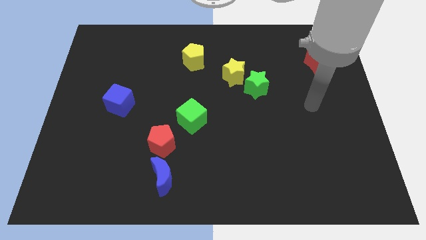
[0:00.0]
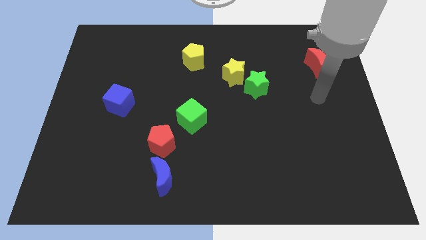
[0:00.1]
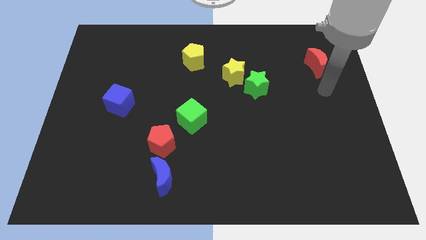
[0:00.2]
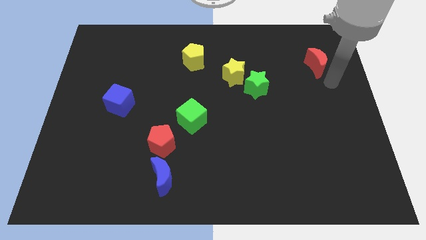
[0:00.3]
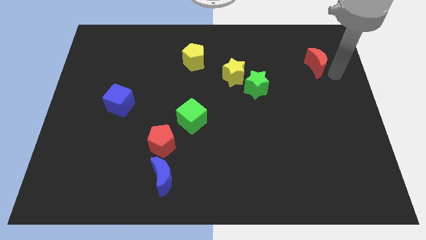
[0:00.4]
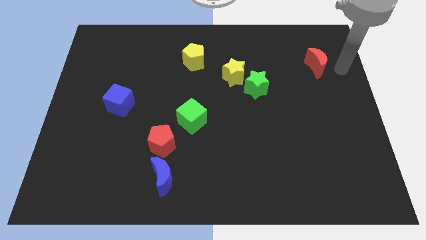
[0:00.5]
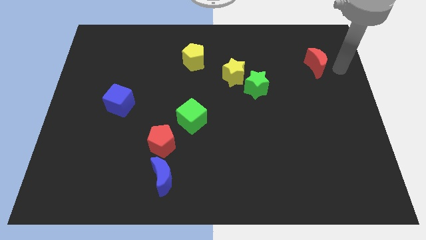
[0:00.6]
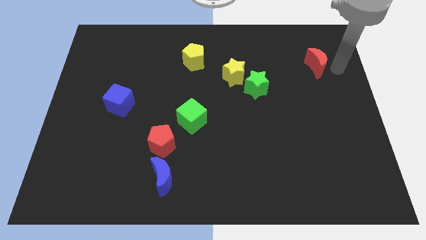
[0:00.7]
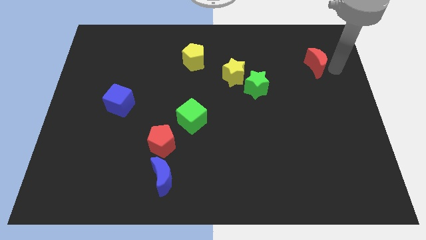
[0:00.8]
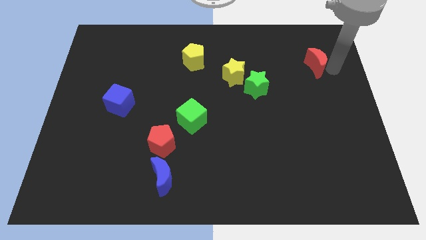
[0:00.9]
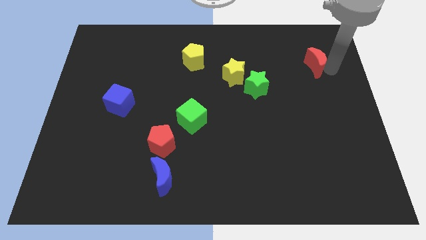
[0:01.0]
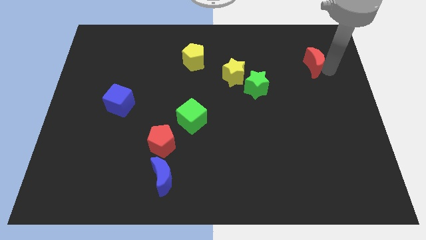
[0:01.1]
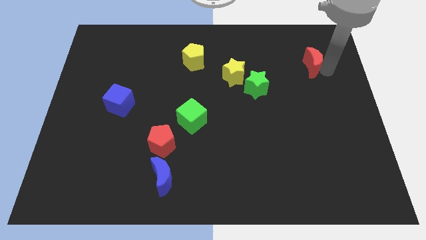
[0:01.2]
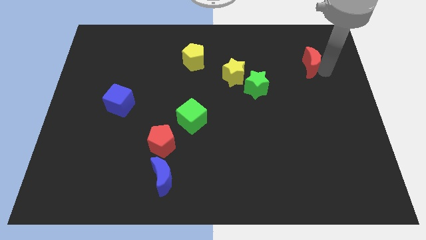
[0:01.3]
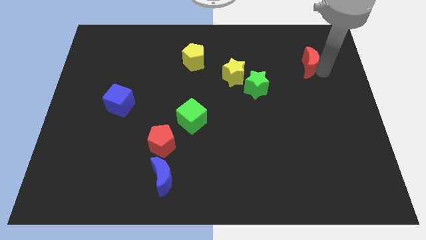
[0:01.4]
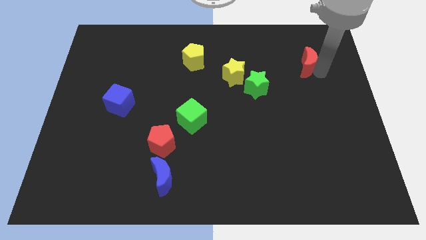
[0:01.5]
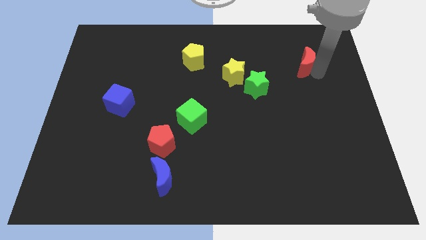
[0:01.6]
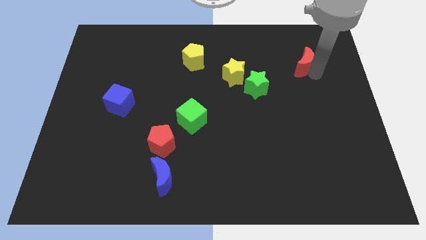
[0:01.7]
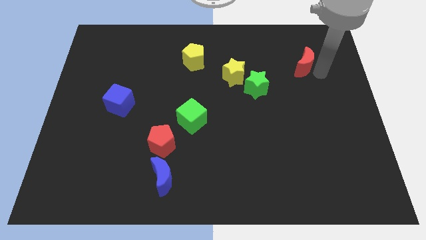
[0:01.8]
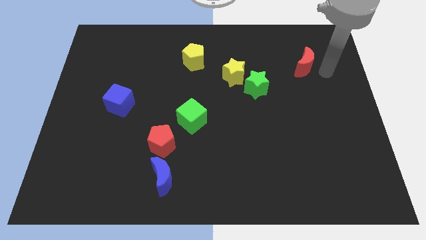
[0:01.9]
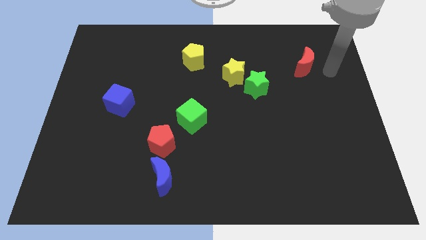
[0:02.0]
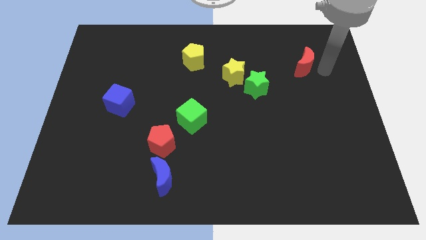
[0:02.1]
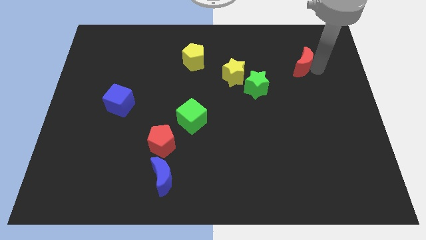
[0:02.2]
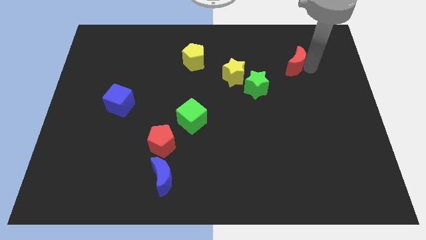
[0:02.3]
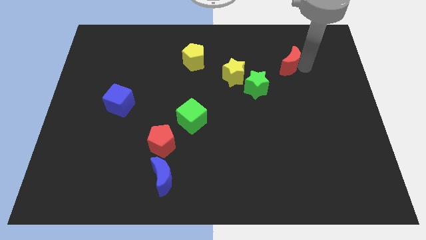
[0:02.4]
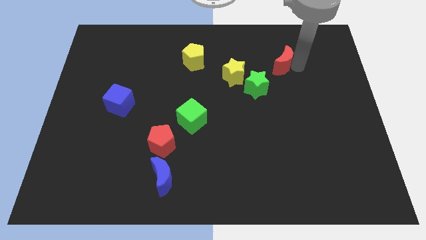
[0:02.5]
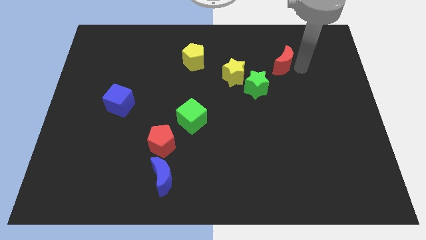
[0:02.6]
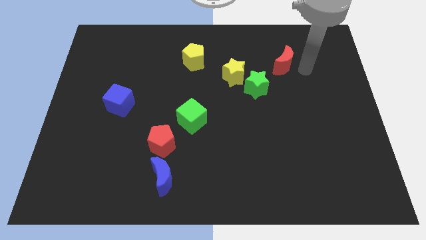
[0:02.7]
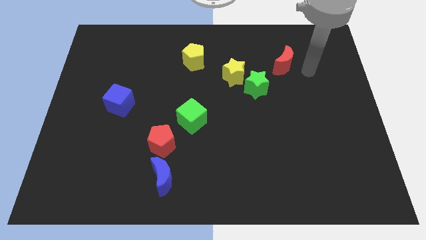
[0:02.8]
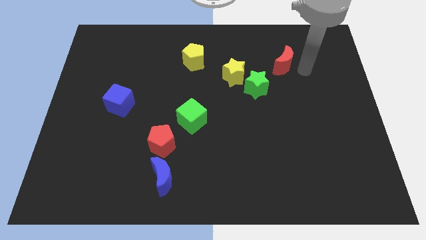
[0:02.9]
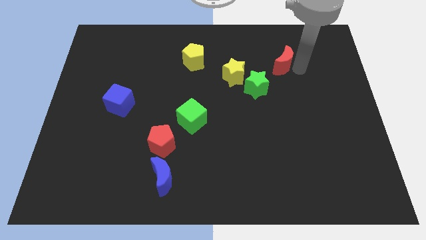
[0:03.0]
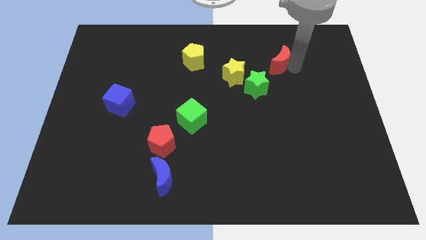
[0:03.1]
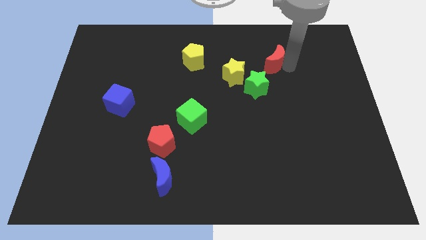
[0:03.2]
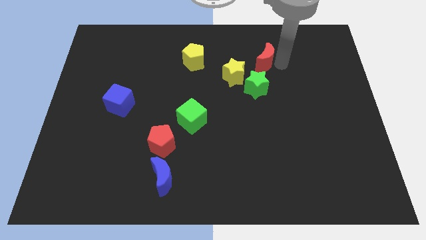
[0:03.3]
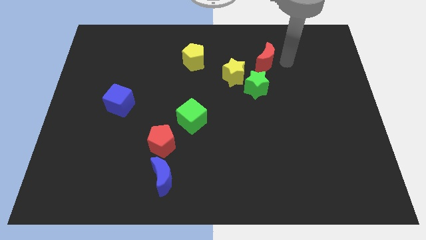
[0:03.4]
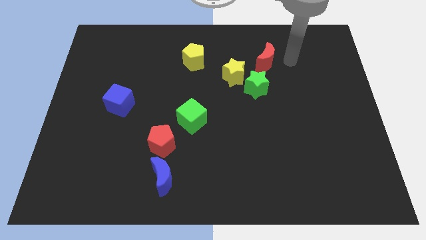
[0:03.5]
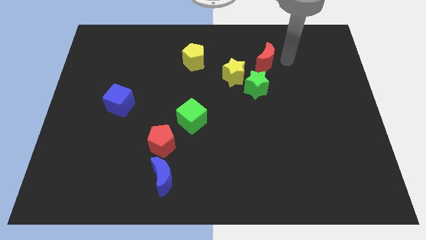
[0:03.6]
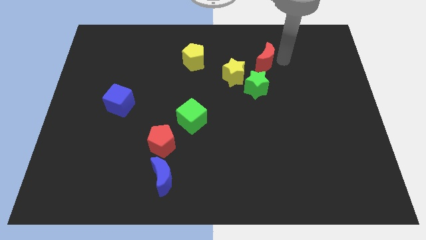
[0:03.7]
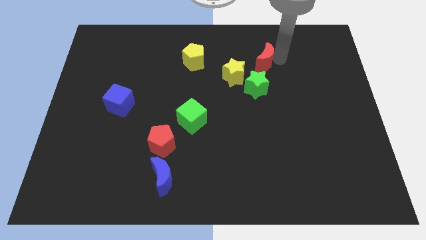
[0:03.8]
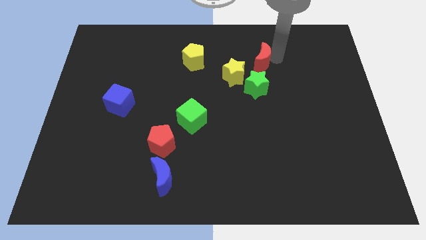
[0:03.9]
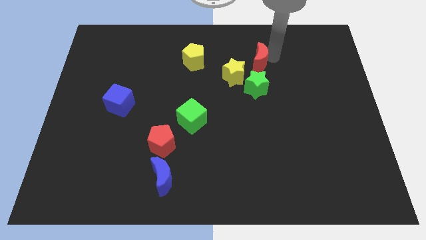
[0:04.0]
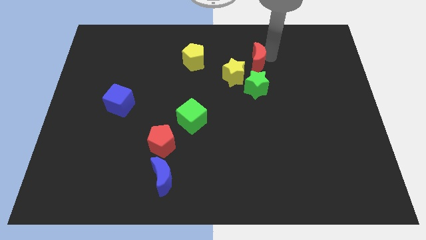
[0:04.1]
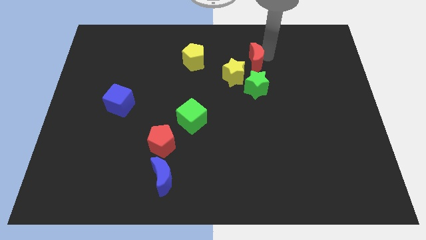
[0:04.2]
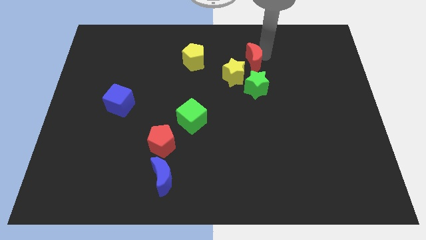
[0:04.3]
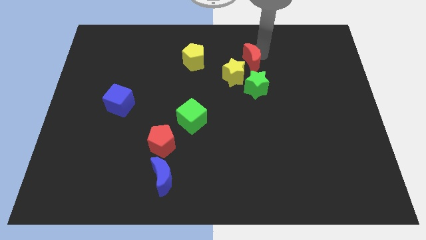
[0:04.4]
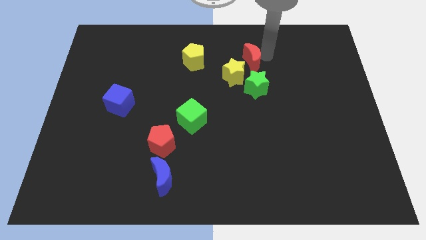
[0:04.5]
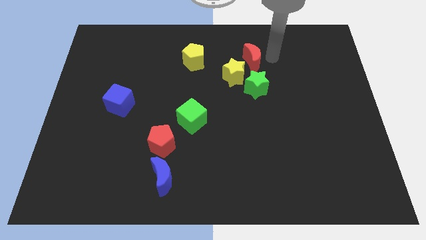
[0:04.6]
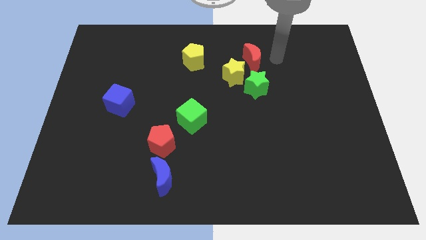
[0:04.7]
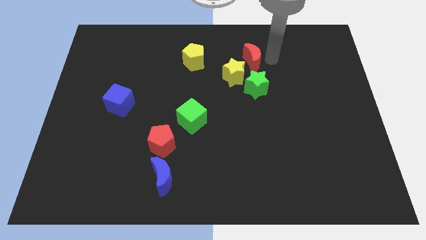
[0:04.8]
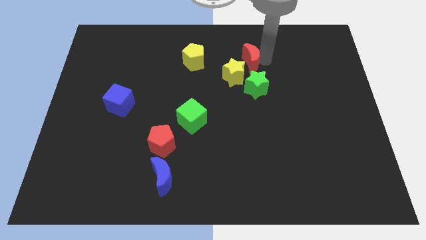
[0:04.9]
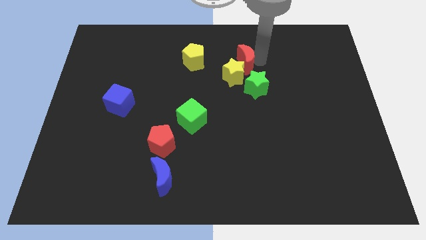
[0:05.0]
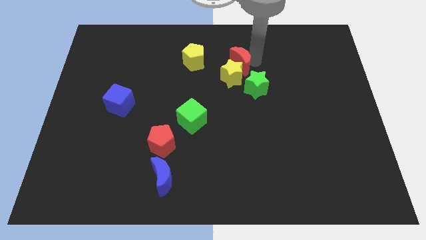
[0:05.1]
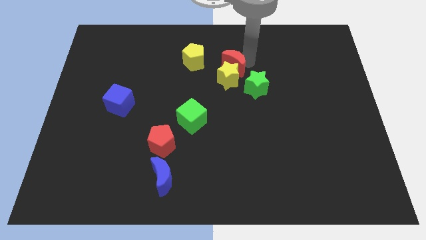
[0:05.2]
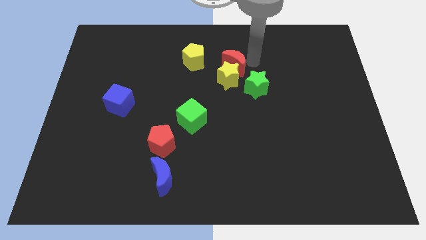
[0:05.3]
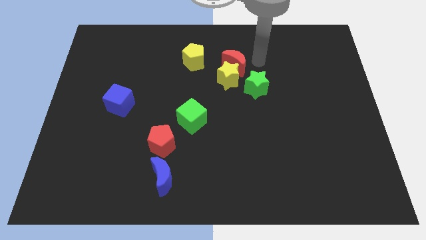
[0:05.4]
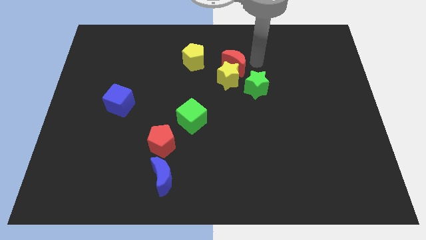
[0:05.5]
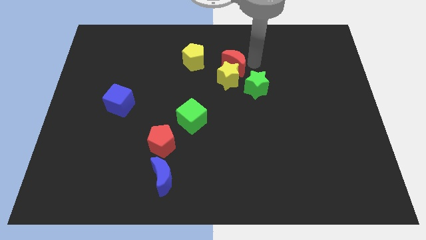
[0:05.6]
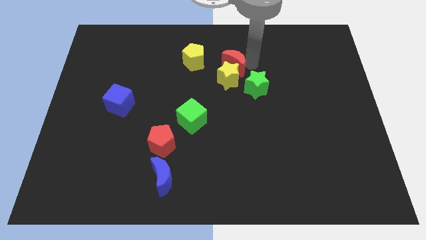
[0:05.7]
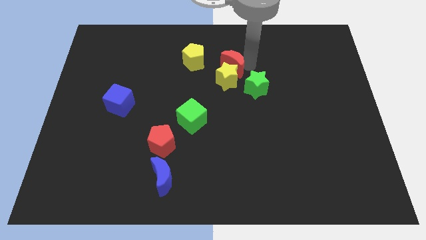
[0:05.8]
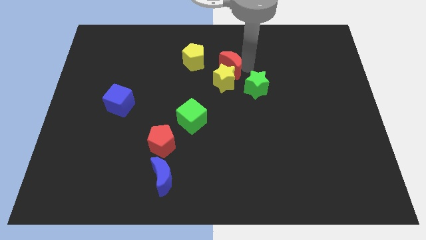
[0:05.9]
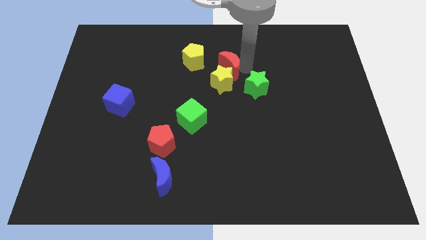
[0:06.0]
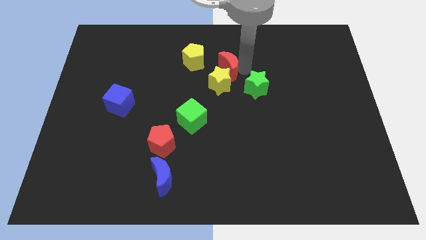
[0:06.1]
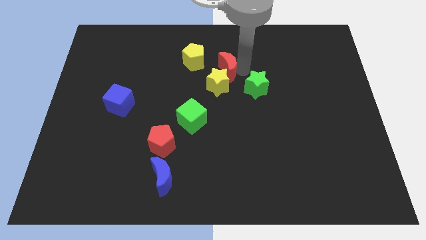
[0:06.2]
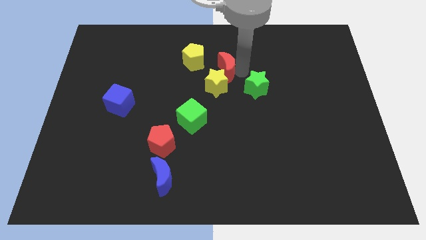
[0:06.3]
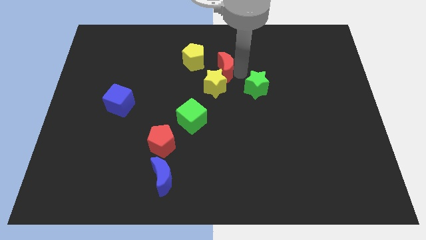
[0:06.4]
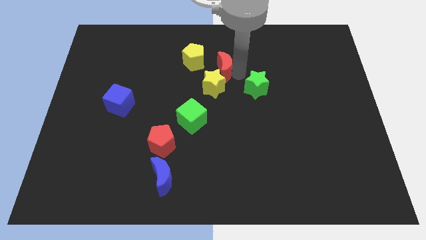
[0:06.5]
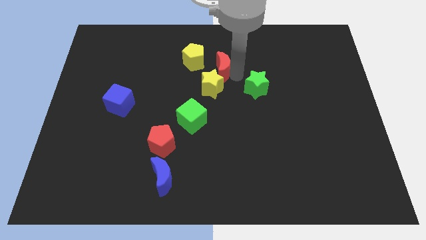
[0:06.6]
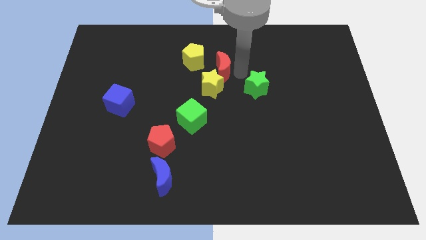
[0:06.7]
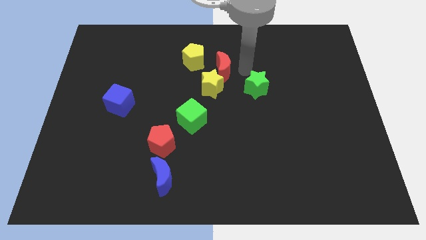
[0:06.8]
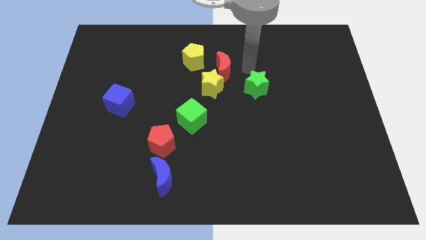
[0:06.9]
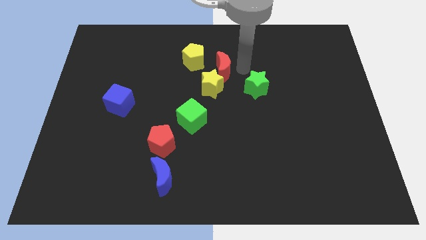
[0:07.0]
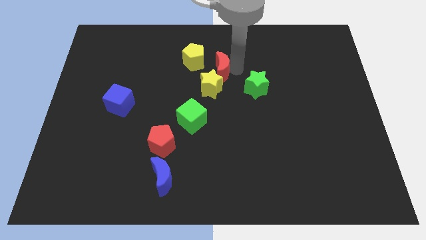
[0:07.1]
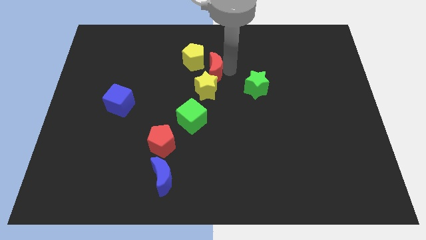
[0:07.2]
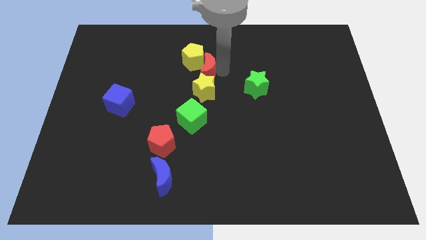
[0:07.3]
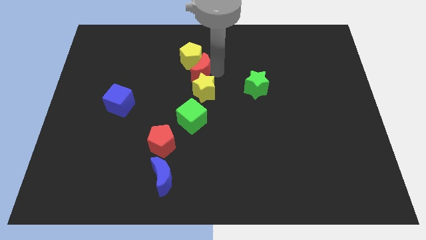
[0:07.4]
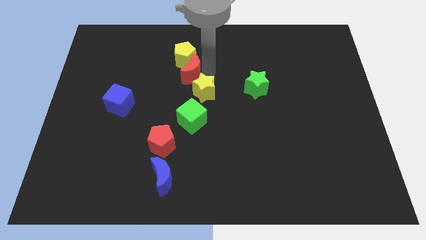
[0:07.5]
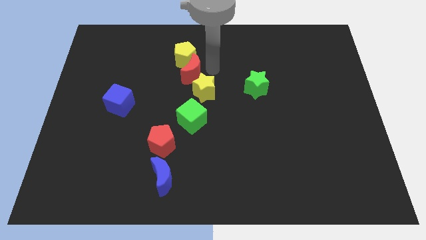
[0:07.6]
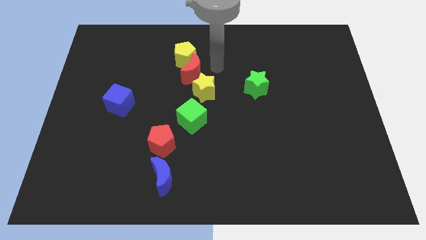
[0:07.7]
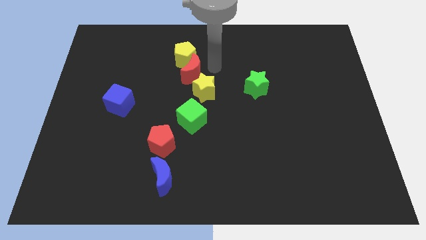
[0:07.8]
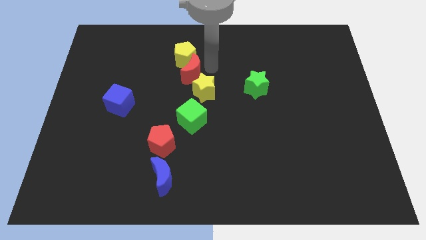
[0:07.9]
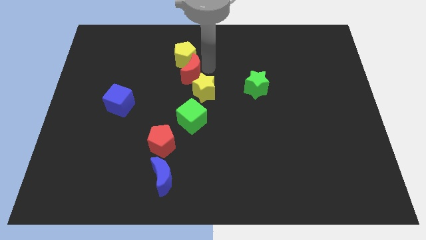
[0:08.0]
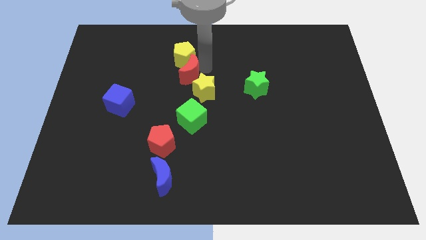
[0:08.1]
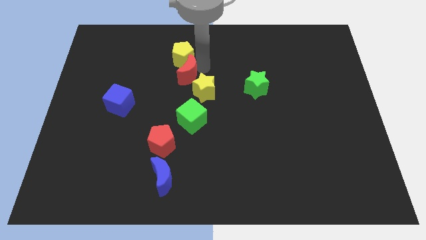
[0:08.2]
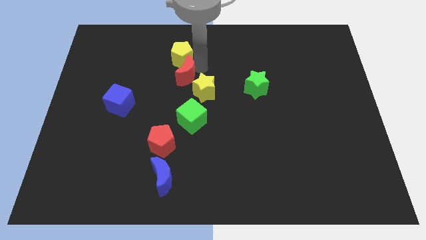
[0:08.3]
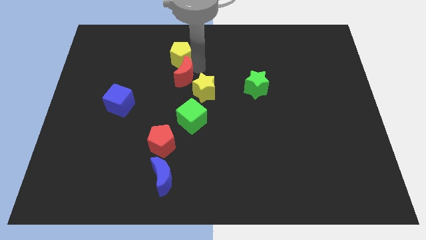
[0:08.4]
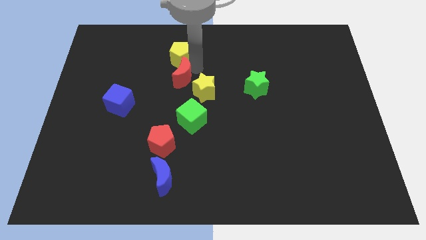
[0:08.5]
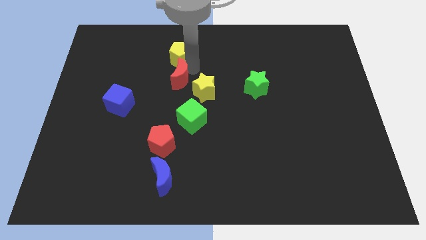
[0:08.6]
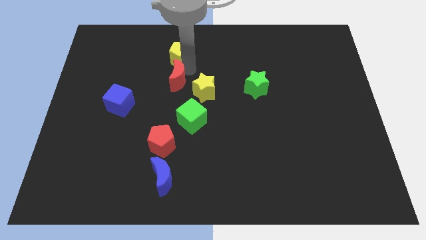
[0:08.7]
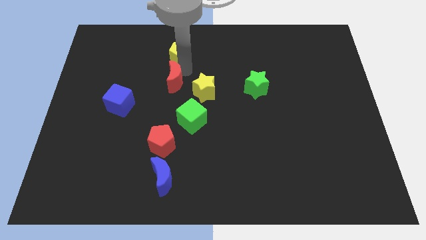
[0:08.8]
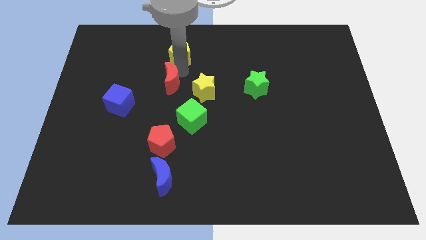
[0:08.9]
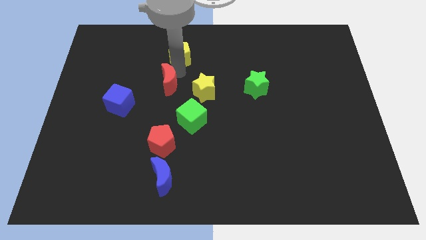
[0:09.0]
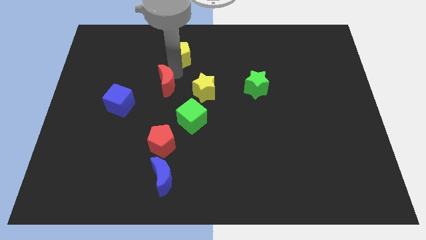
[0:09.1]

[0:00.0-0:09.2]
slide the red moon to the top right side of the blue cube
